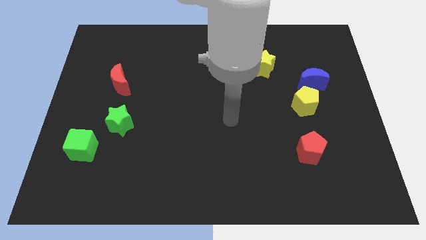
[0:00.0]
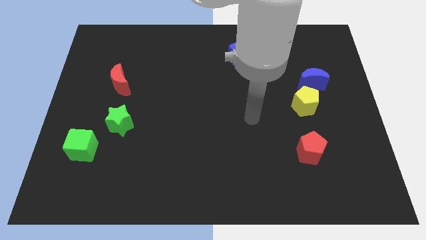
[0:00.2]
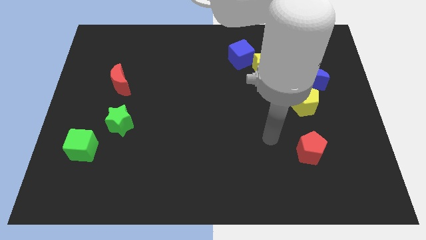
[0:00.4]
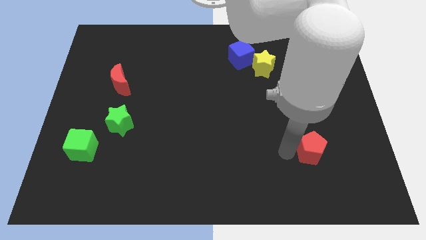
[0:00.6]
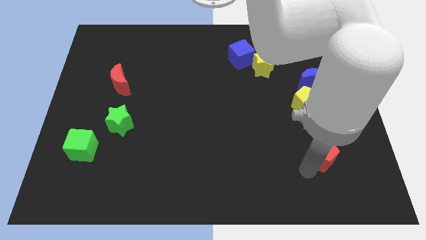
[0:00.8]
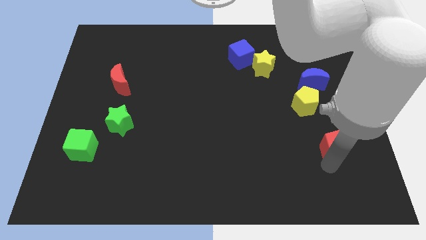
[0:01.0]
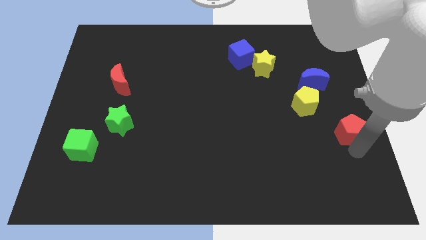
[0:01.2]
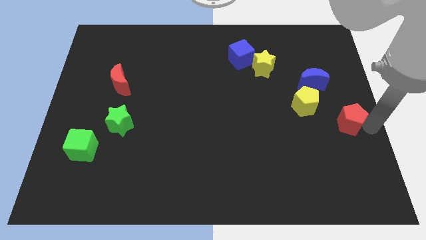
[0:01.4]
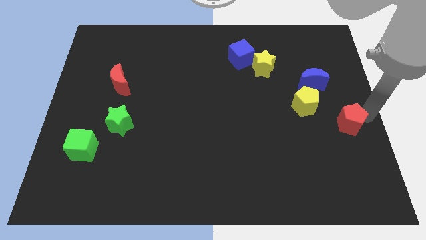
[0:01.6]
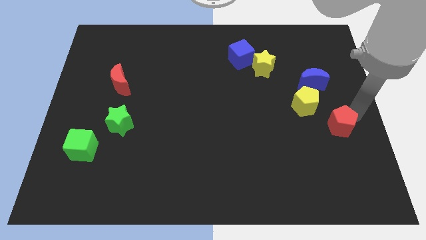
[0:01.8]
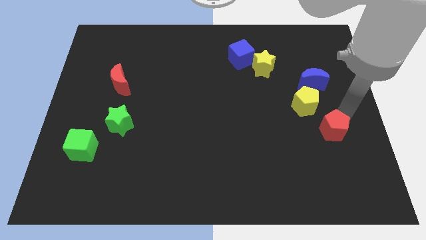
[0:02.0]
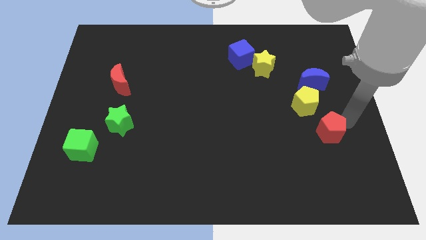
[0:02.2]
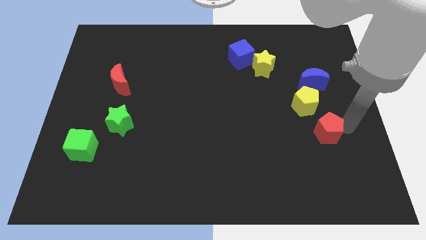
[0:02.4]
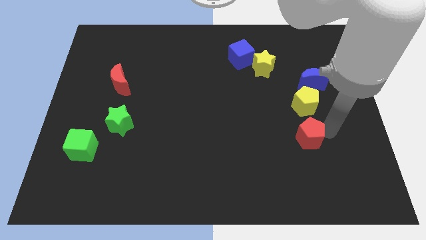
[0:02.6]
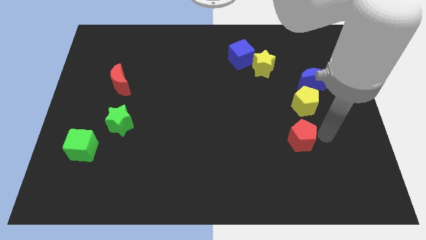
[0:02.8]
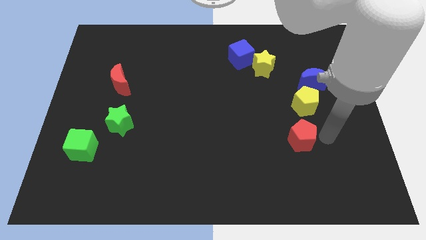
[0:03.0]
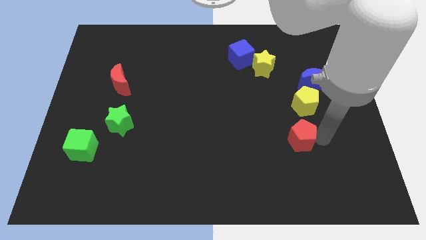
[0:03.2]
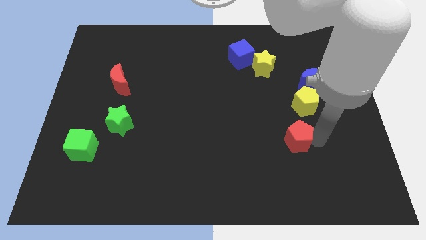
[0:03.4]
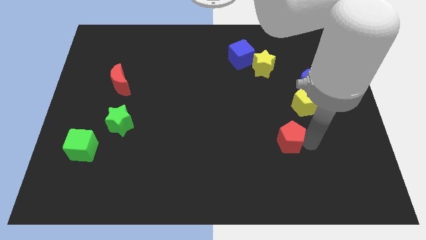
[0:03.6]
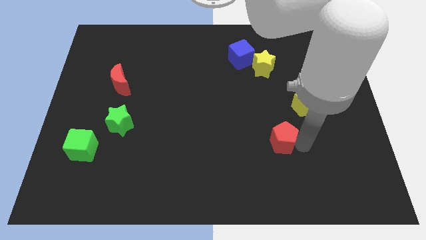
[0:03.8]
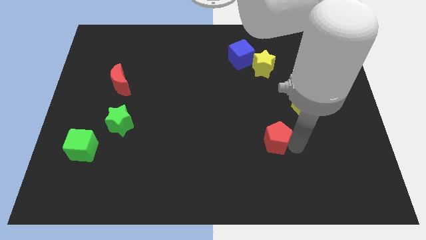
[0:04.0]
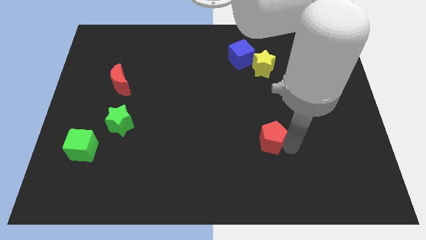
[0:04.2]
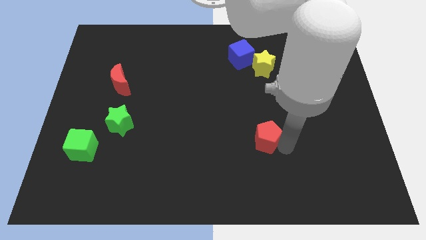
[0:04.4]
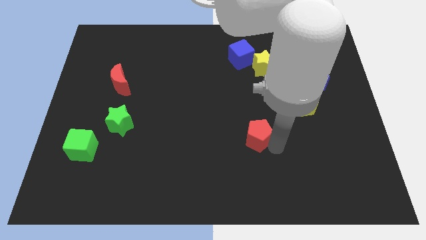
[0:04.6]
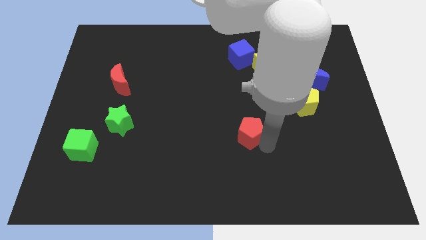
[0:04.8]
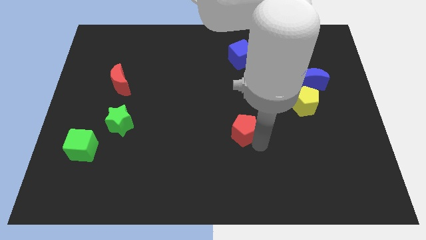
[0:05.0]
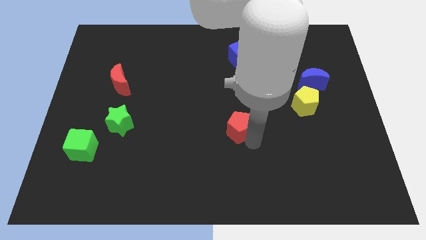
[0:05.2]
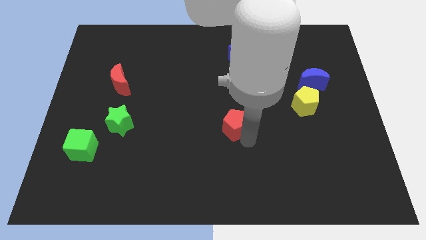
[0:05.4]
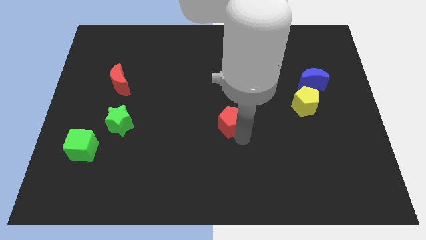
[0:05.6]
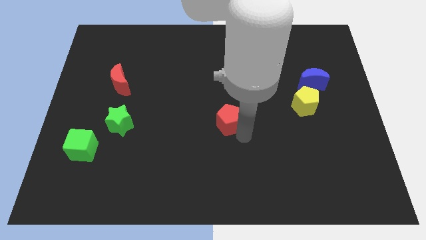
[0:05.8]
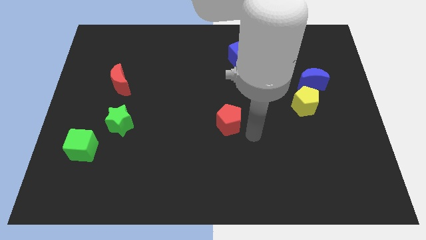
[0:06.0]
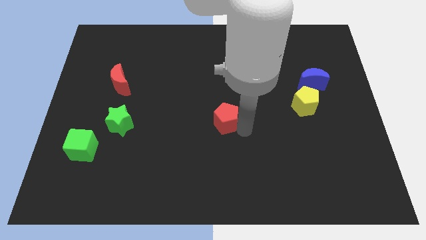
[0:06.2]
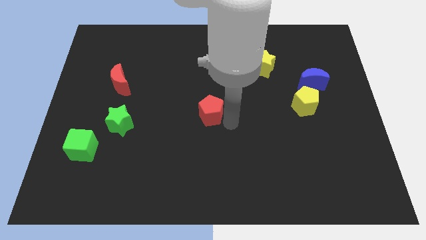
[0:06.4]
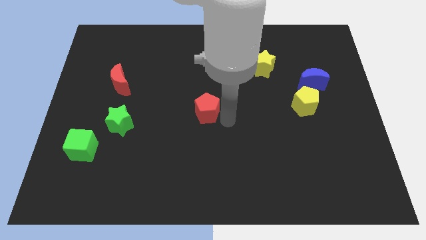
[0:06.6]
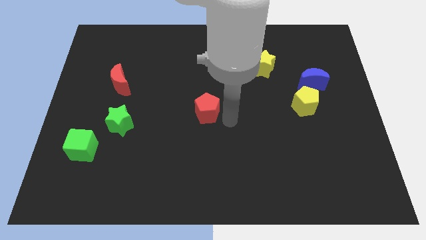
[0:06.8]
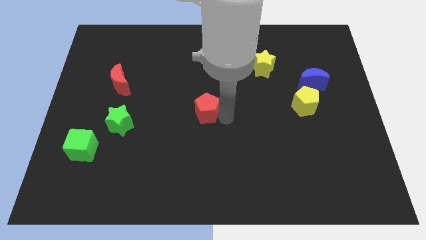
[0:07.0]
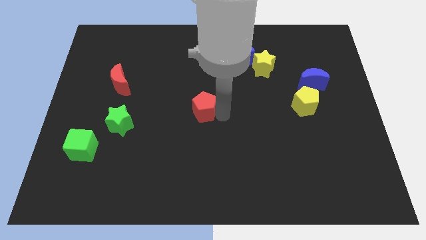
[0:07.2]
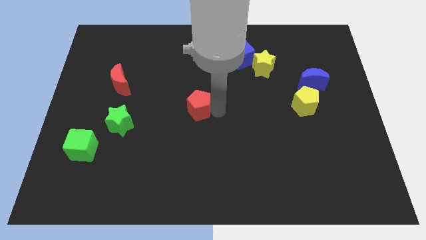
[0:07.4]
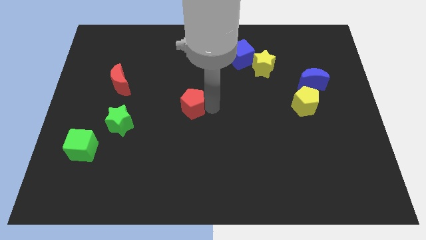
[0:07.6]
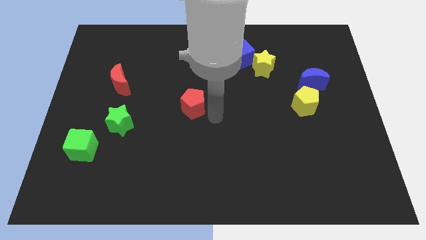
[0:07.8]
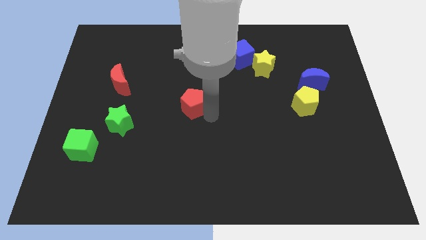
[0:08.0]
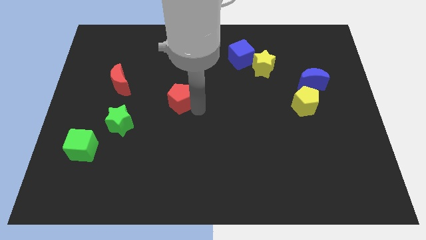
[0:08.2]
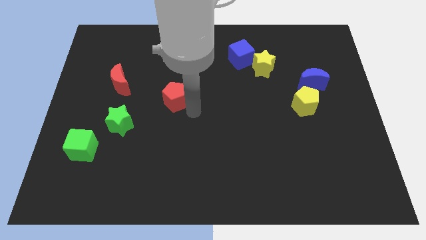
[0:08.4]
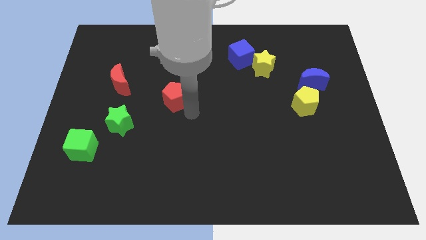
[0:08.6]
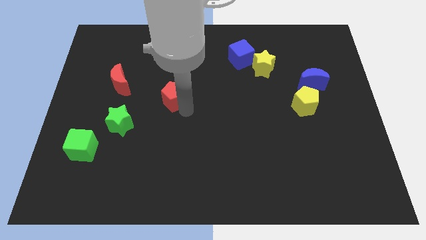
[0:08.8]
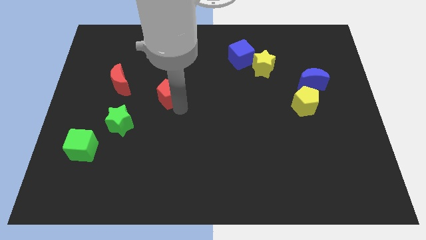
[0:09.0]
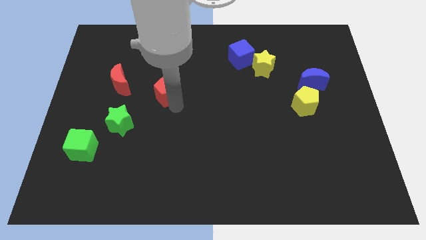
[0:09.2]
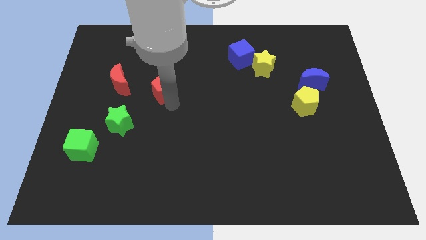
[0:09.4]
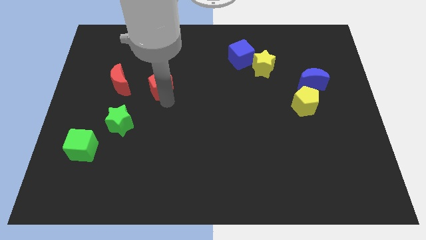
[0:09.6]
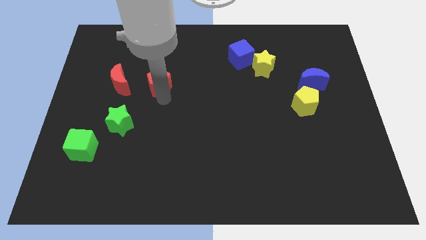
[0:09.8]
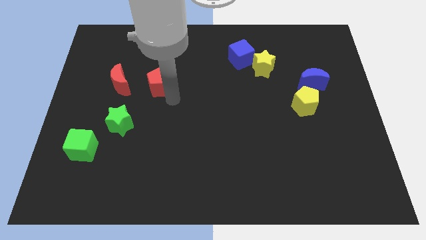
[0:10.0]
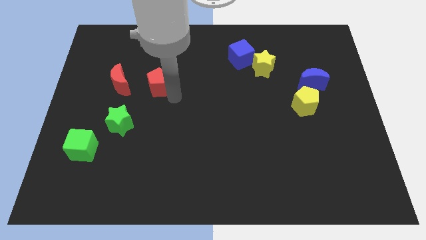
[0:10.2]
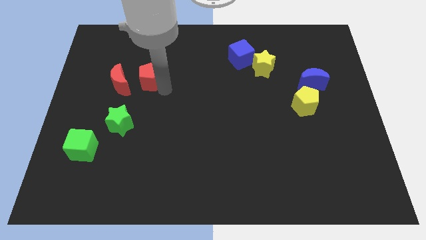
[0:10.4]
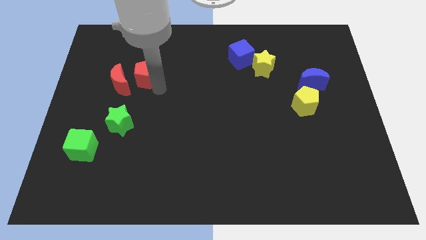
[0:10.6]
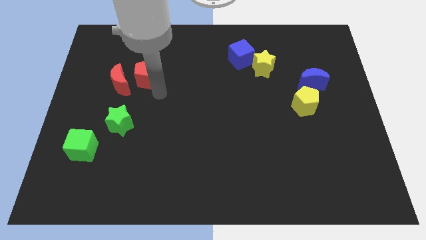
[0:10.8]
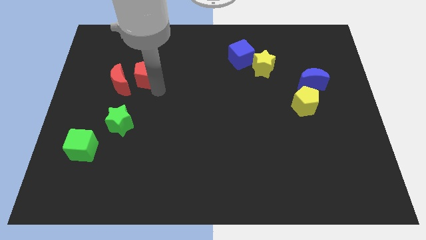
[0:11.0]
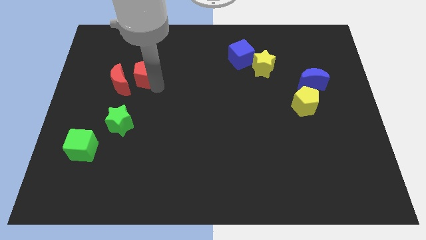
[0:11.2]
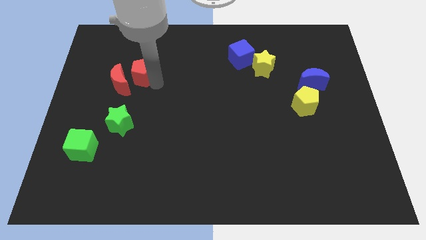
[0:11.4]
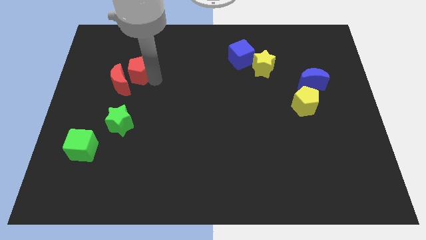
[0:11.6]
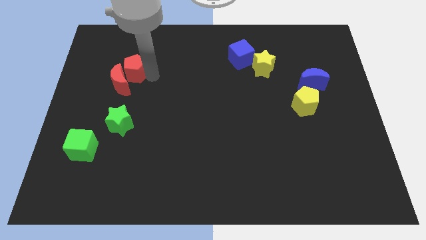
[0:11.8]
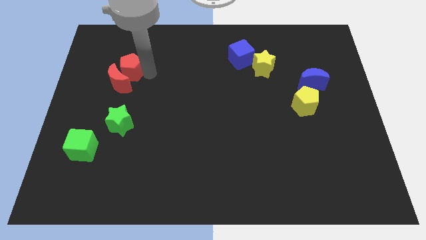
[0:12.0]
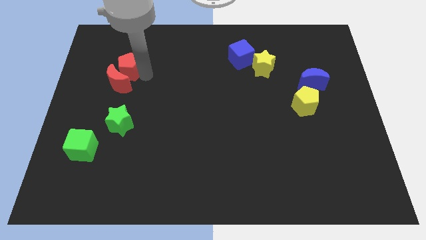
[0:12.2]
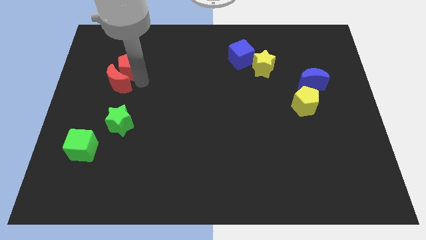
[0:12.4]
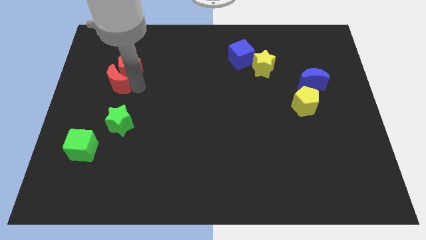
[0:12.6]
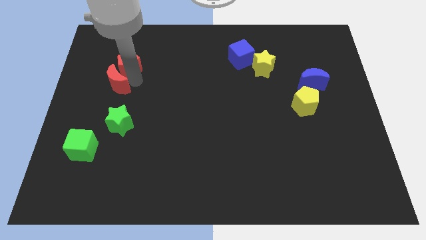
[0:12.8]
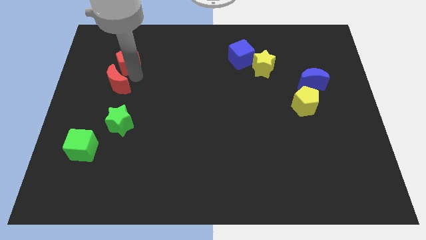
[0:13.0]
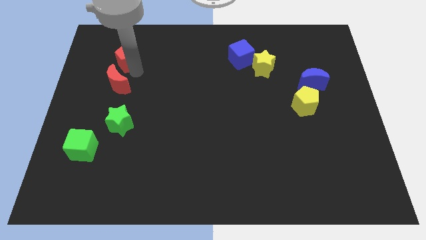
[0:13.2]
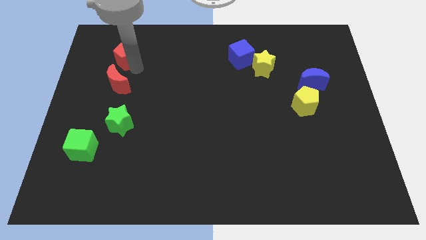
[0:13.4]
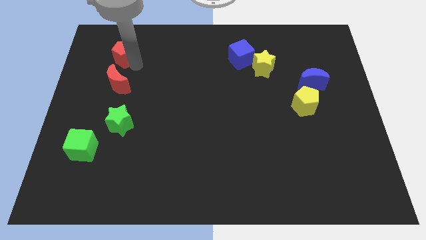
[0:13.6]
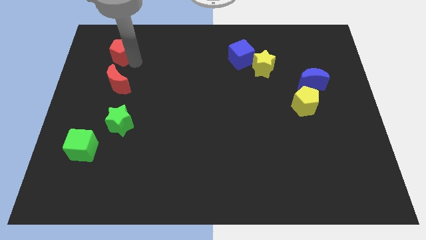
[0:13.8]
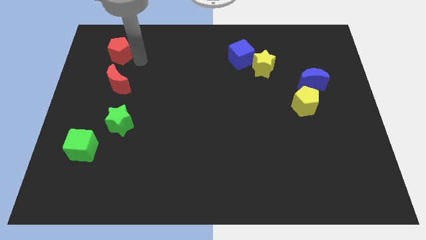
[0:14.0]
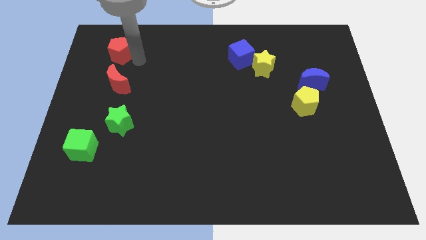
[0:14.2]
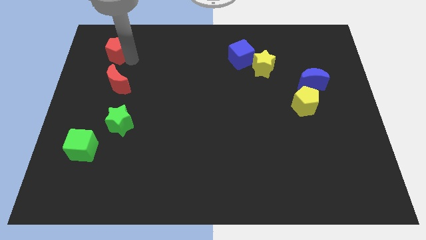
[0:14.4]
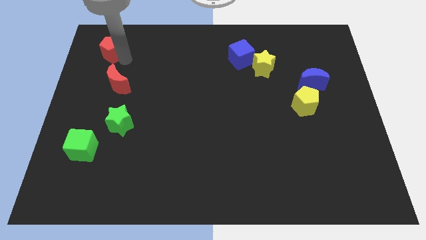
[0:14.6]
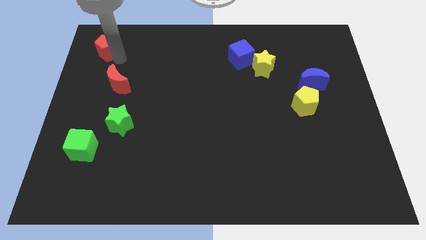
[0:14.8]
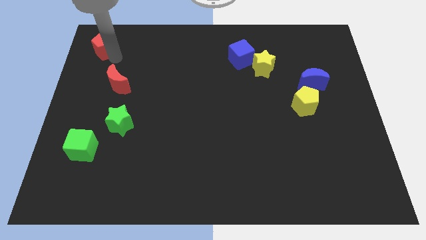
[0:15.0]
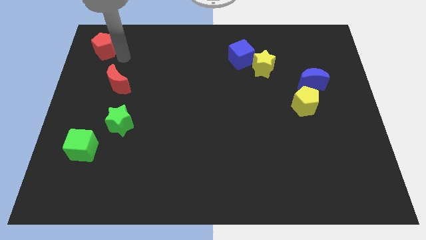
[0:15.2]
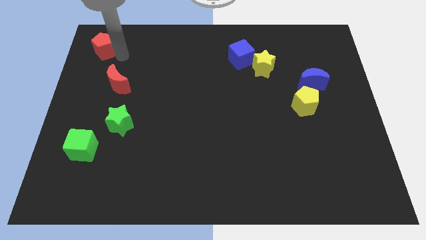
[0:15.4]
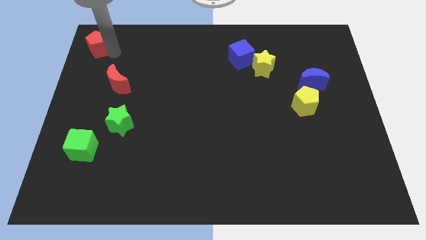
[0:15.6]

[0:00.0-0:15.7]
move the red pentagon to the top left
